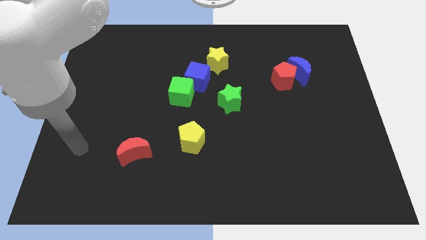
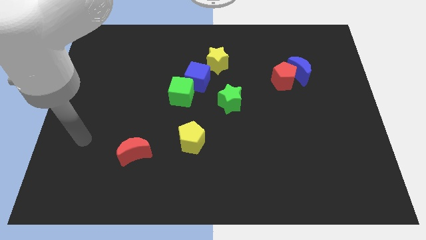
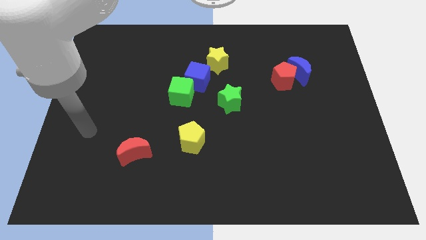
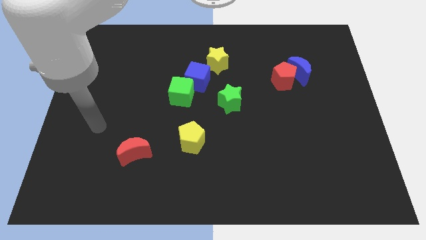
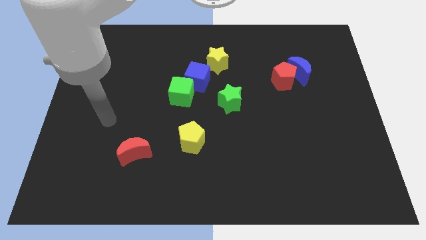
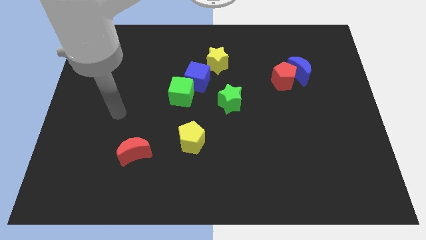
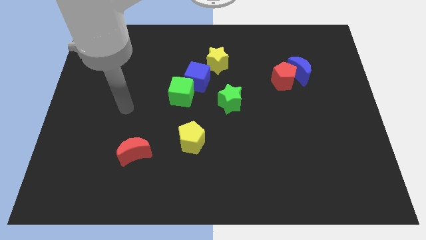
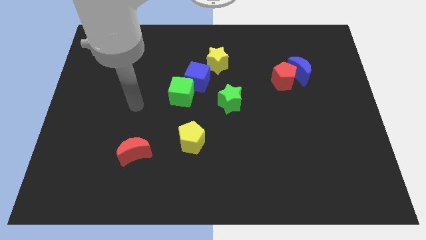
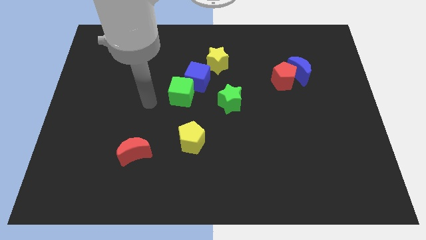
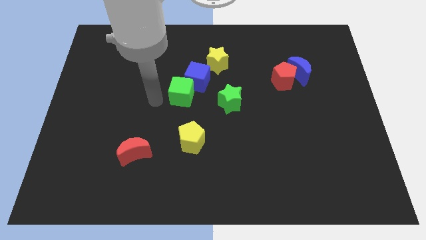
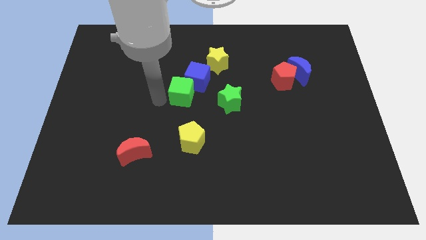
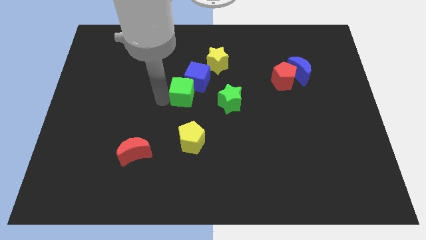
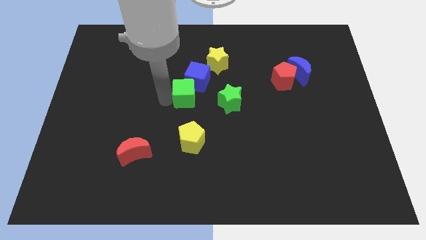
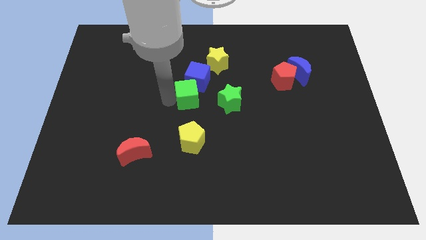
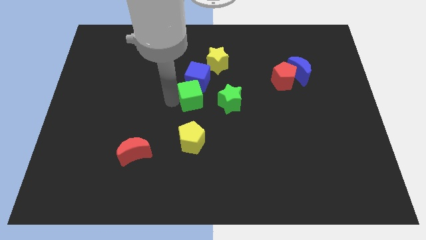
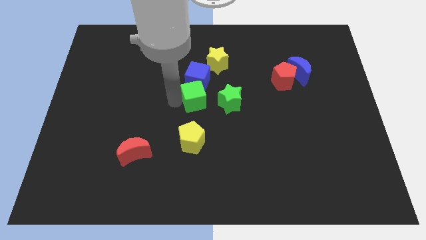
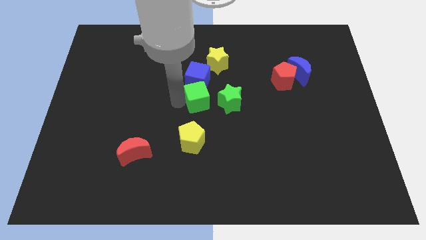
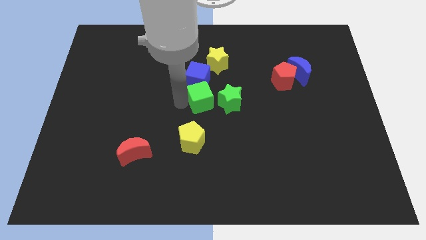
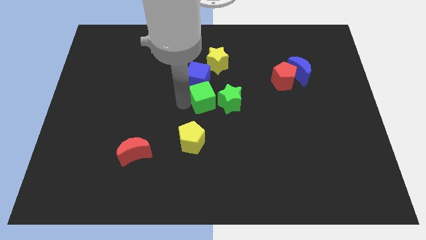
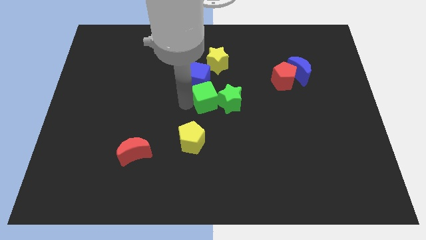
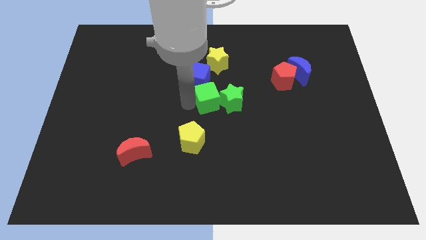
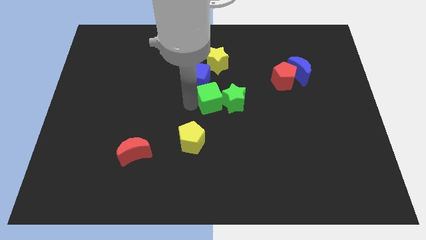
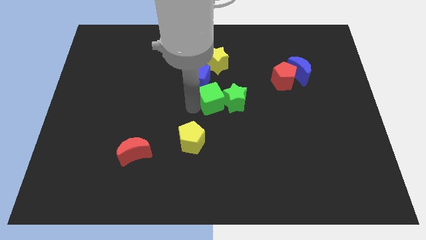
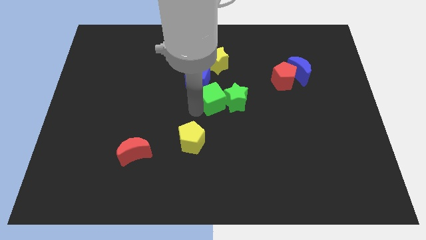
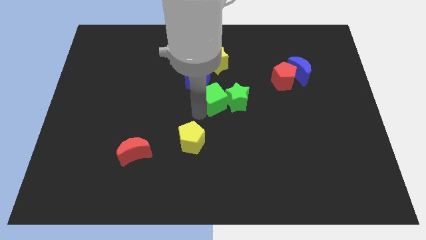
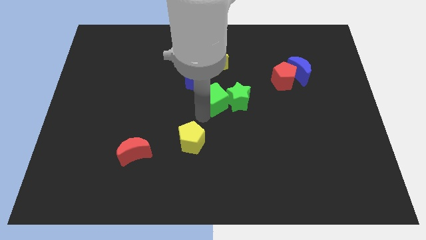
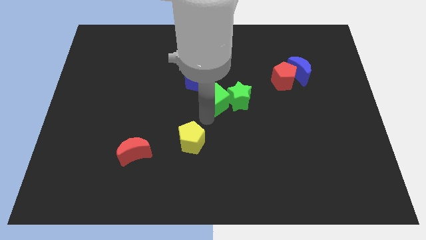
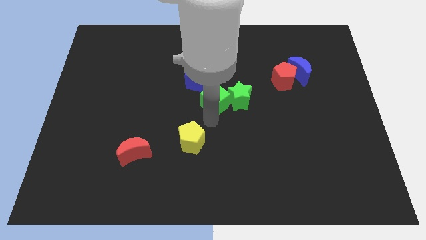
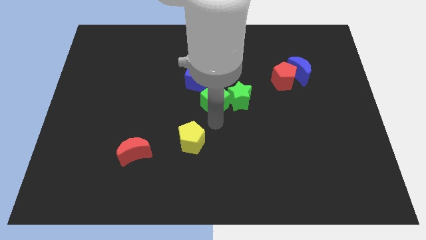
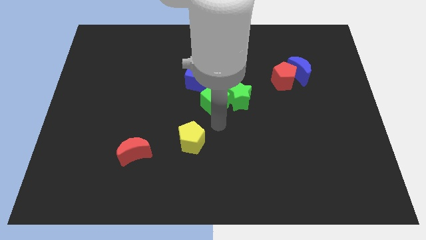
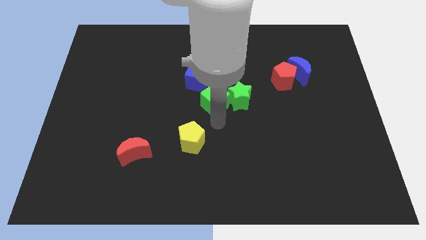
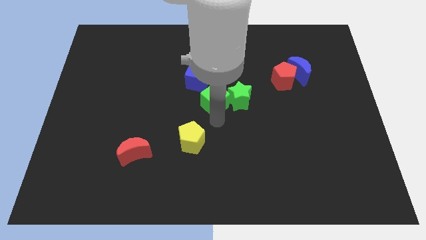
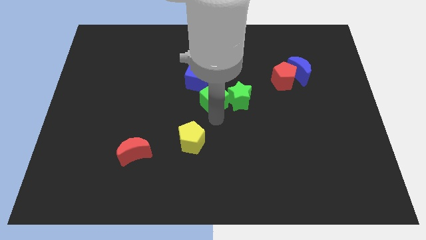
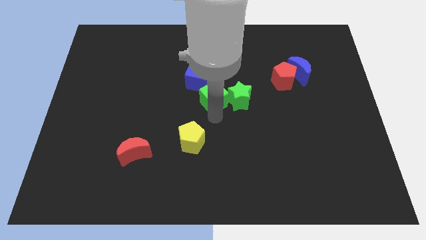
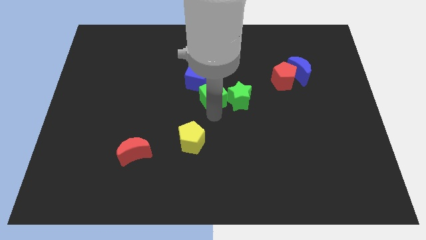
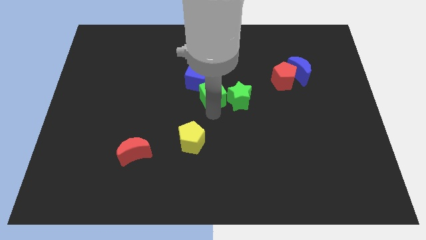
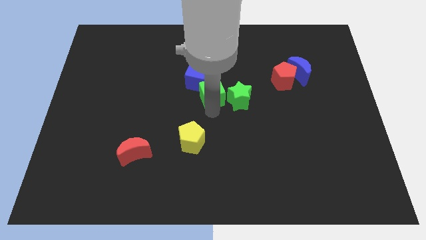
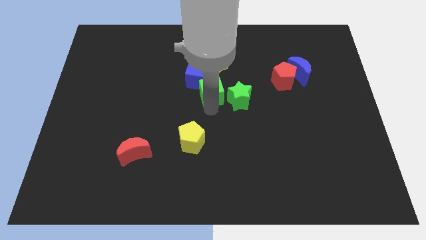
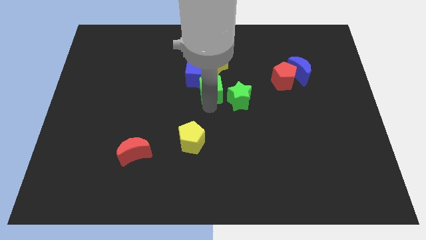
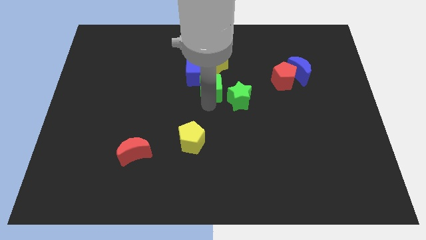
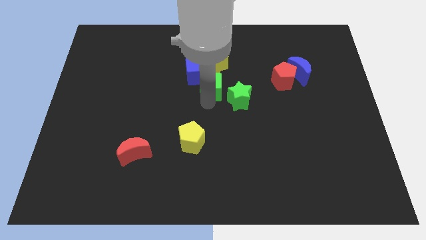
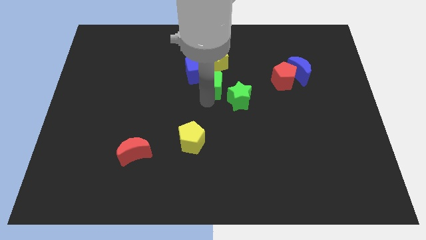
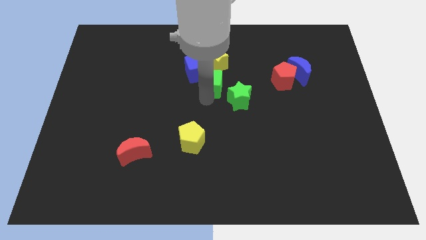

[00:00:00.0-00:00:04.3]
slightly push the green cube upwards and right diagonally

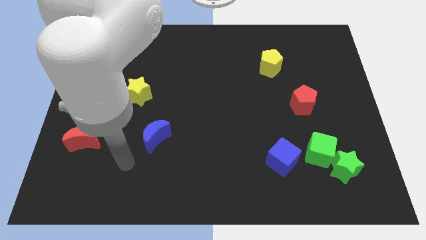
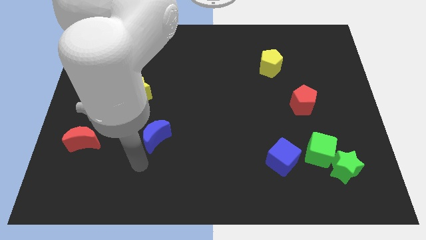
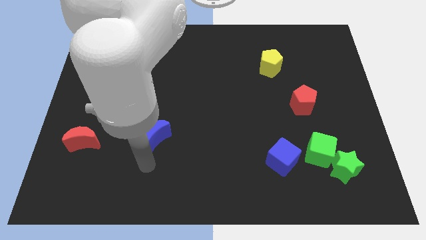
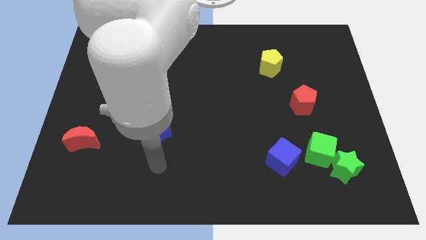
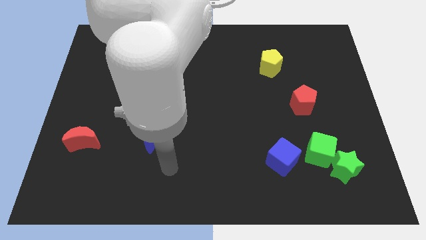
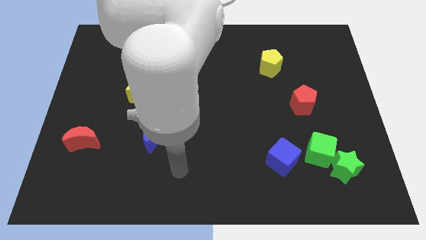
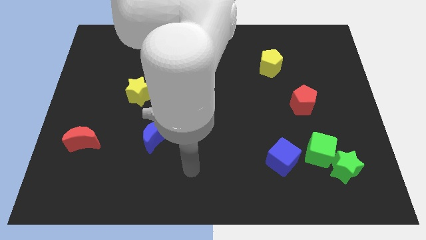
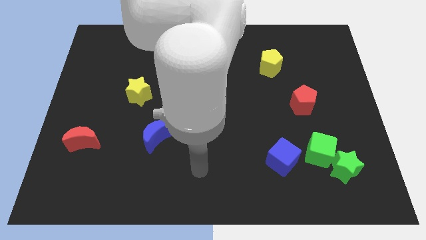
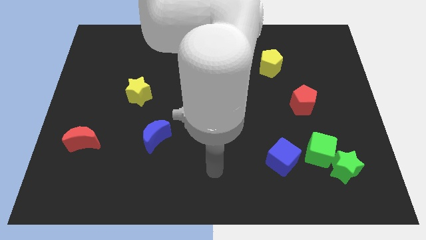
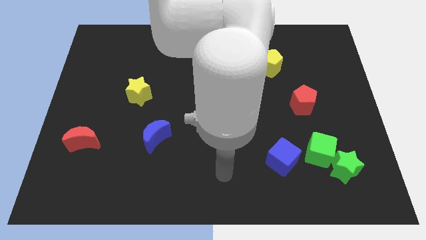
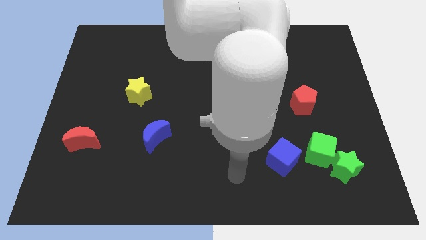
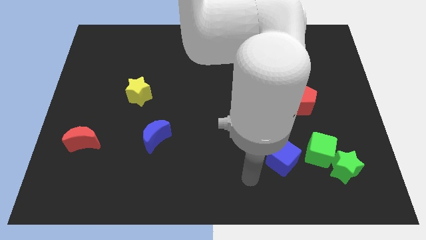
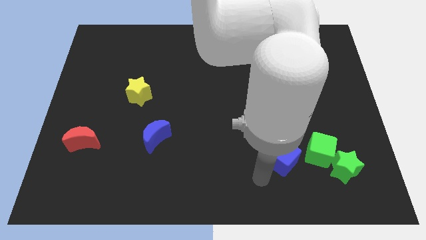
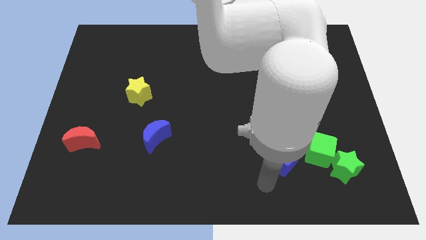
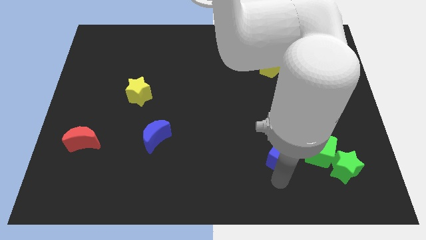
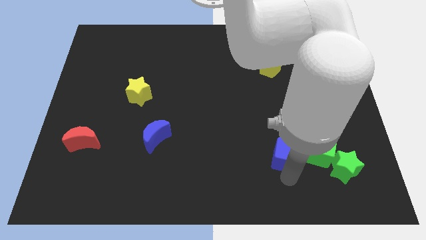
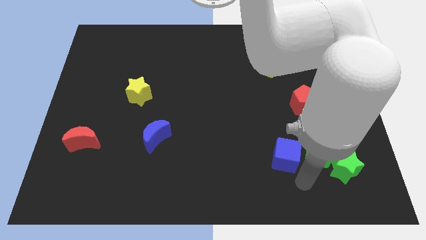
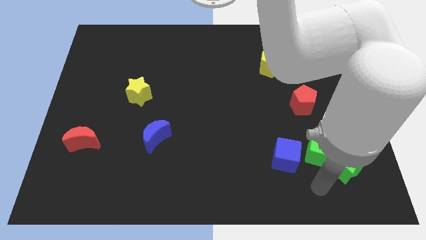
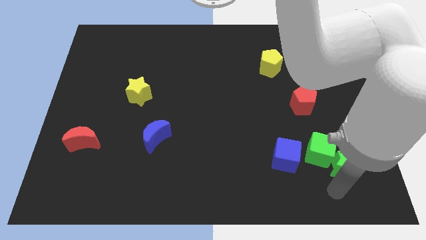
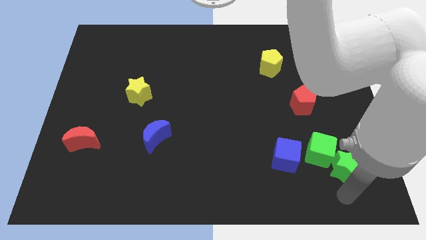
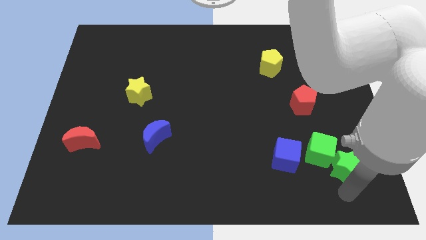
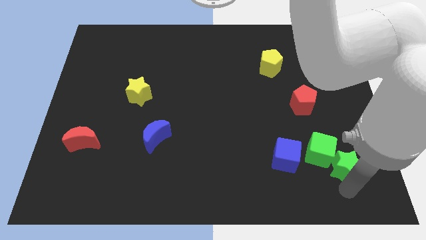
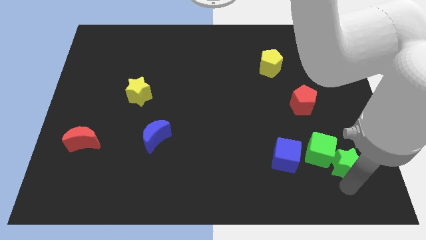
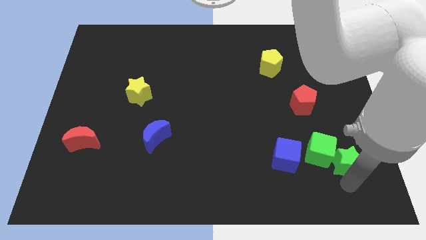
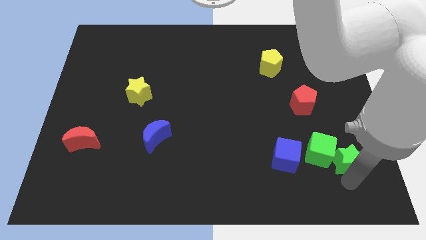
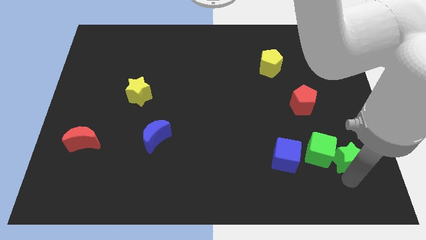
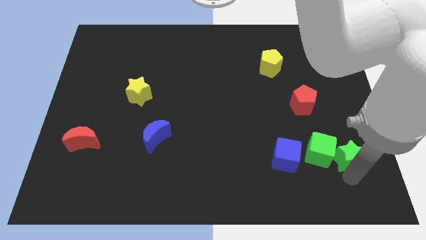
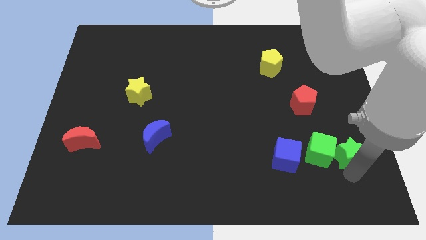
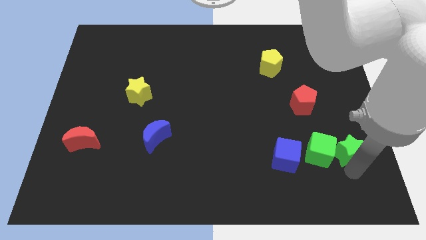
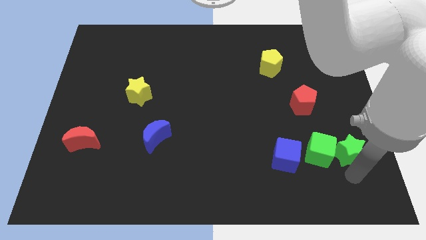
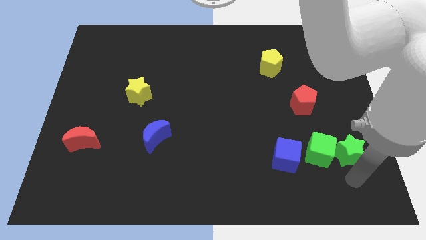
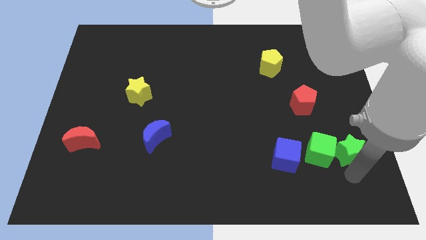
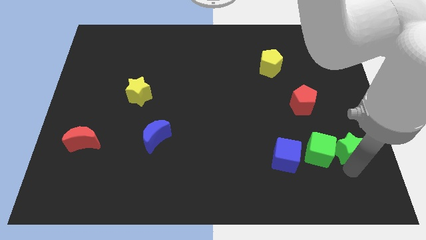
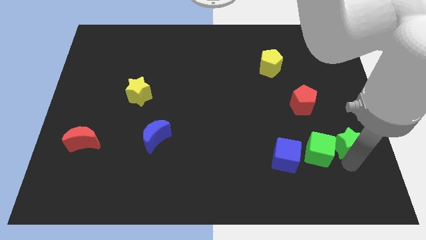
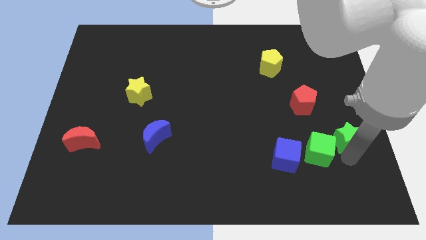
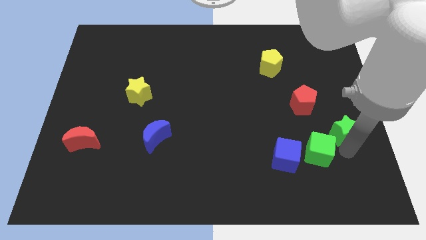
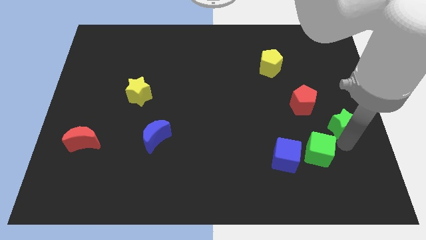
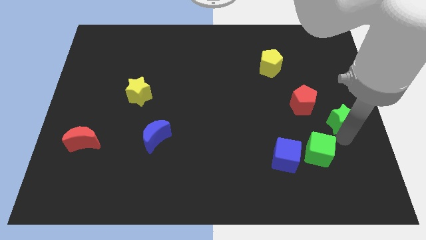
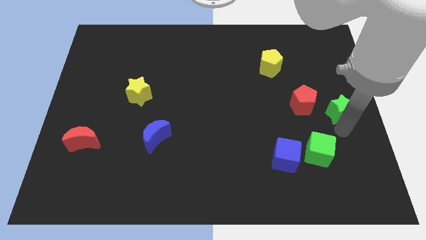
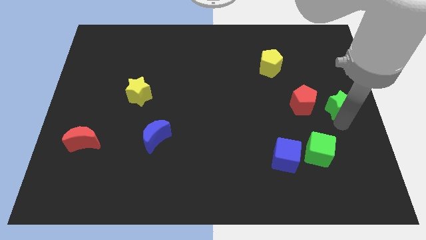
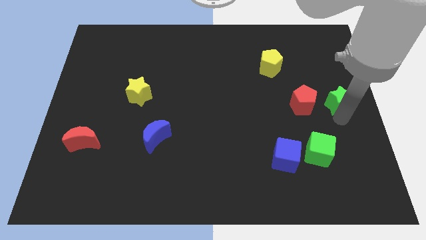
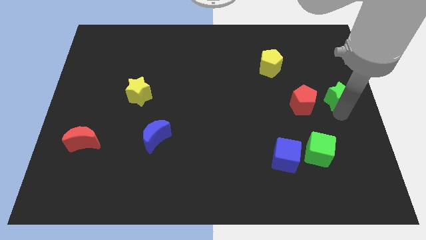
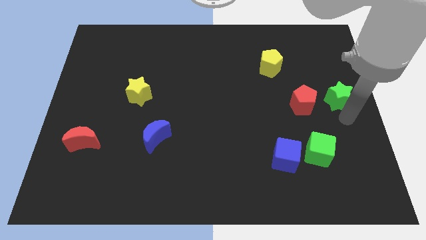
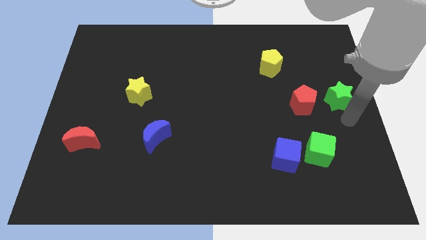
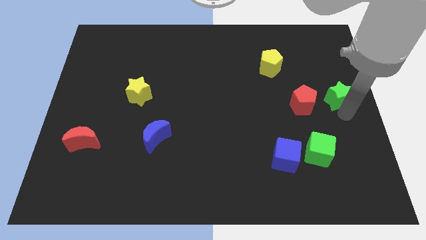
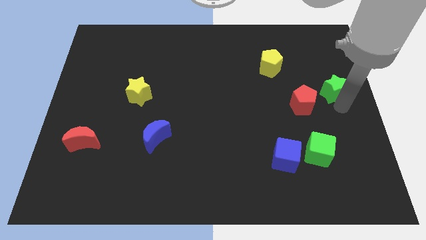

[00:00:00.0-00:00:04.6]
move the green star upwards
